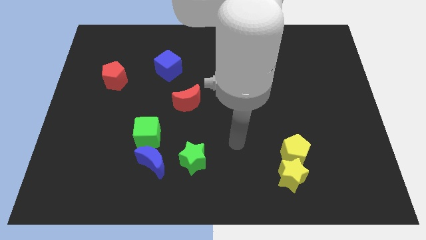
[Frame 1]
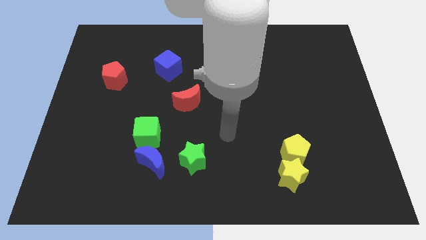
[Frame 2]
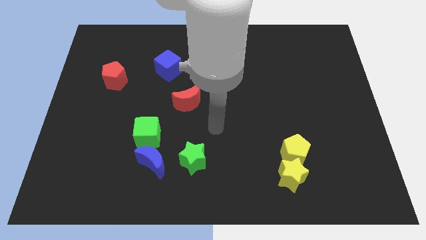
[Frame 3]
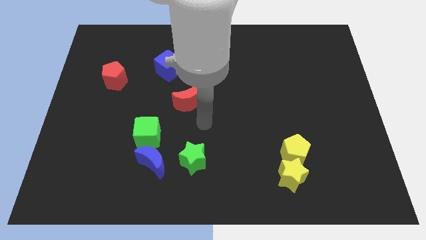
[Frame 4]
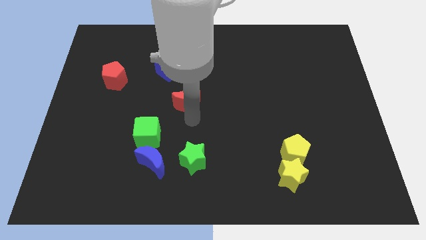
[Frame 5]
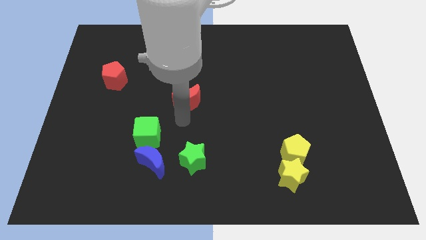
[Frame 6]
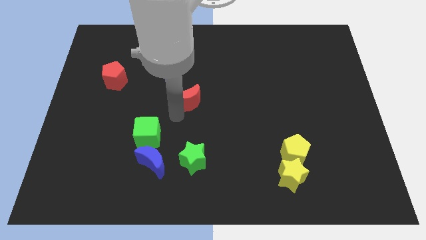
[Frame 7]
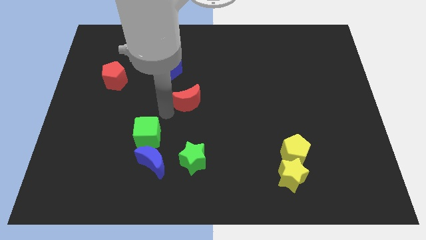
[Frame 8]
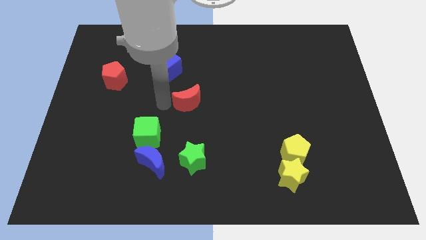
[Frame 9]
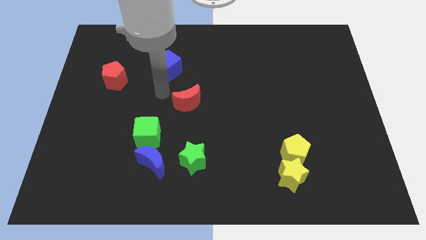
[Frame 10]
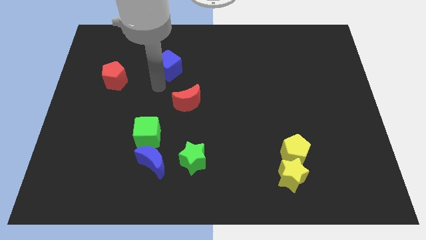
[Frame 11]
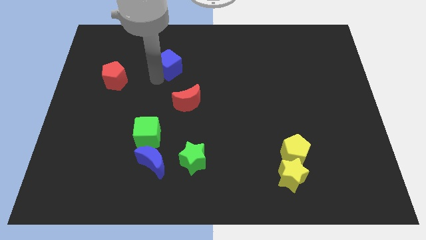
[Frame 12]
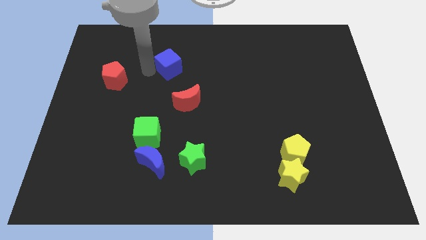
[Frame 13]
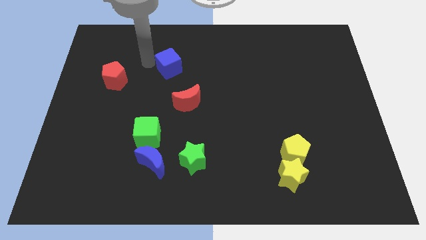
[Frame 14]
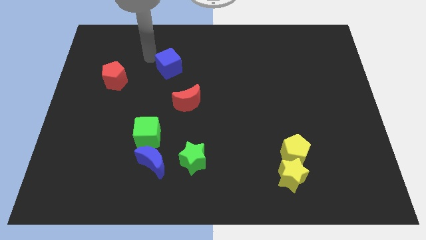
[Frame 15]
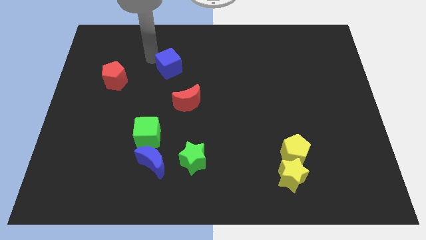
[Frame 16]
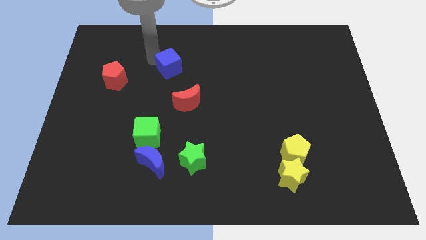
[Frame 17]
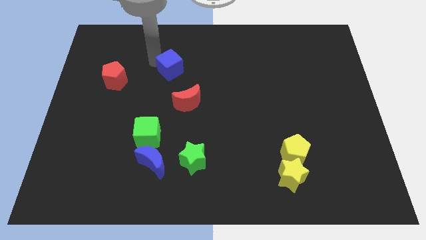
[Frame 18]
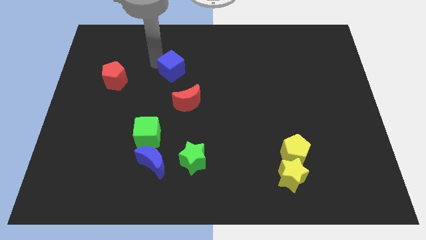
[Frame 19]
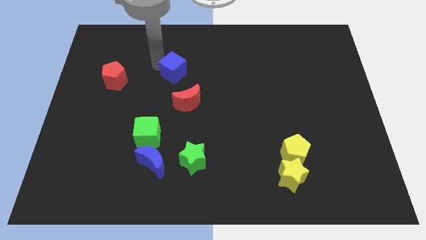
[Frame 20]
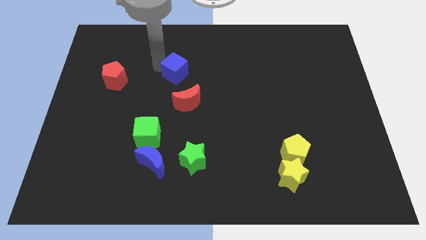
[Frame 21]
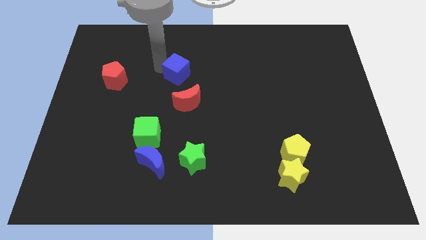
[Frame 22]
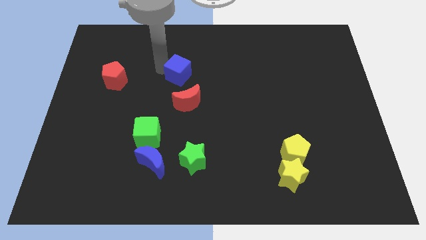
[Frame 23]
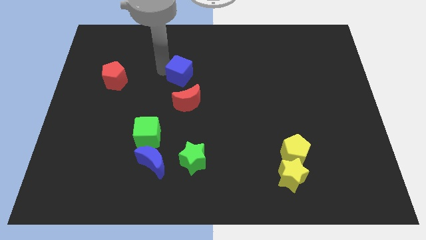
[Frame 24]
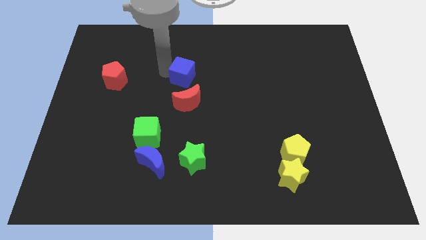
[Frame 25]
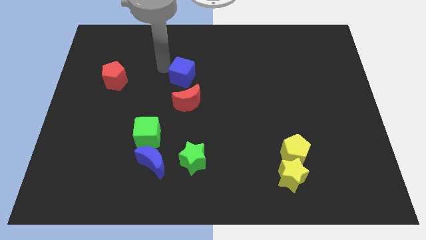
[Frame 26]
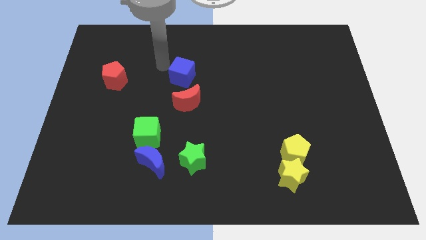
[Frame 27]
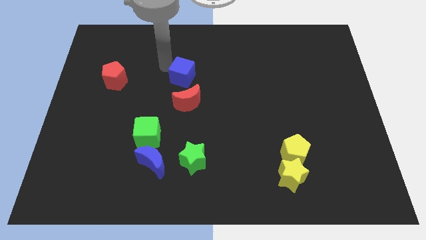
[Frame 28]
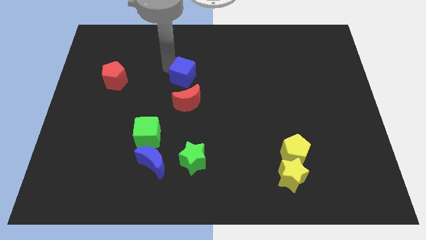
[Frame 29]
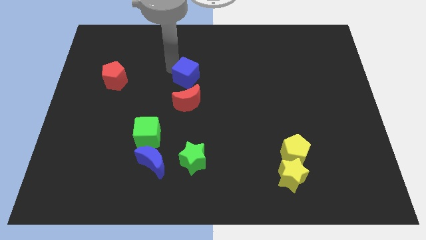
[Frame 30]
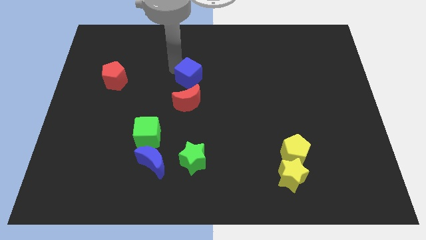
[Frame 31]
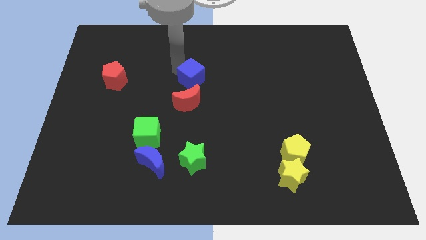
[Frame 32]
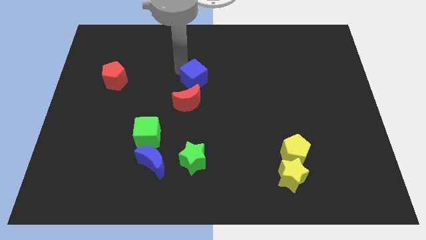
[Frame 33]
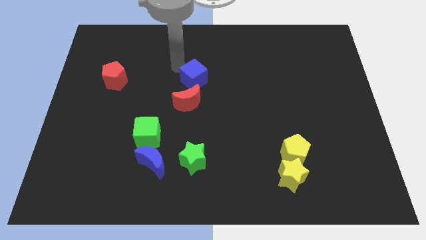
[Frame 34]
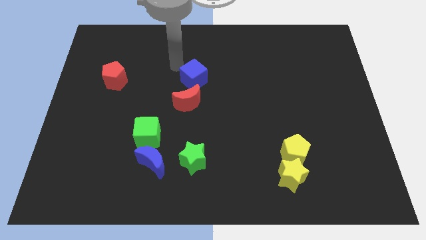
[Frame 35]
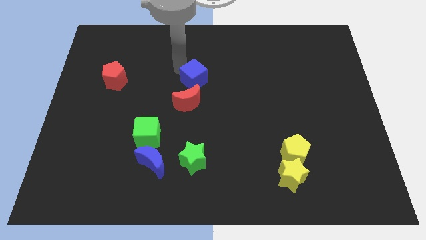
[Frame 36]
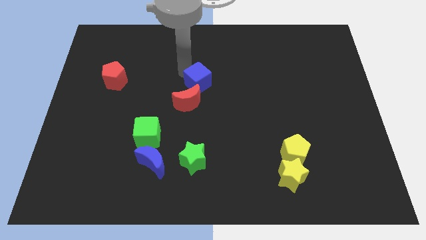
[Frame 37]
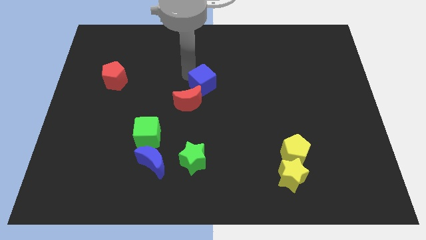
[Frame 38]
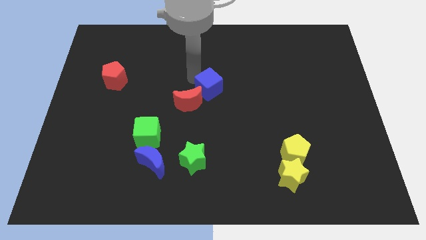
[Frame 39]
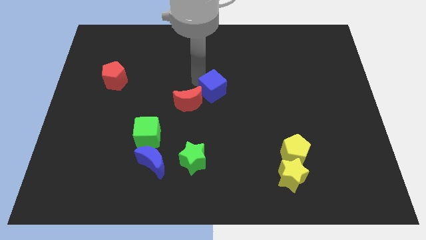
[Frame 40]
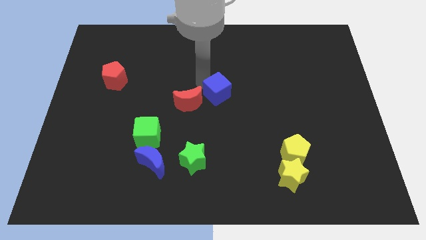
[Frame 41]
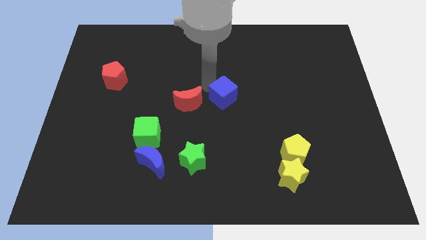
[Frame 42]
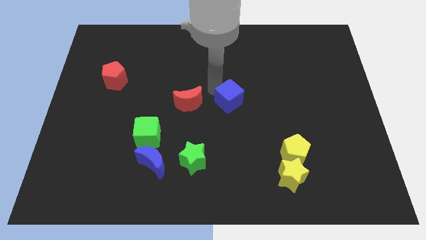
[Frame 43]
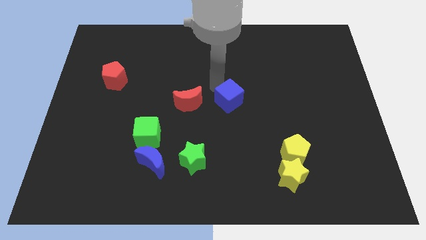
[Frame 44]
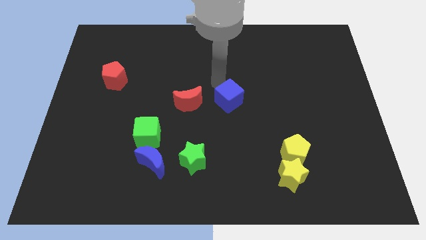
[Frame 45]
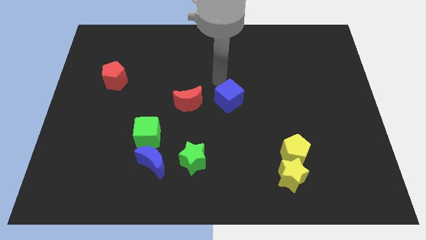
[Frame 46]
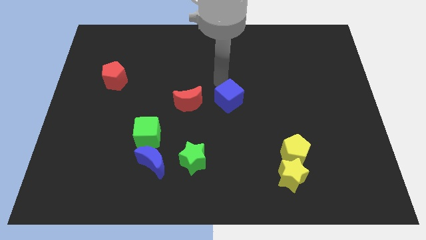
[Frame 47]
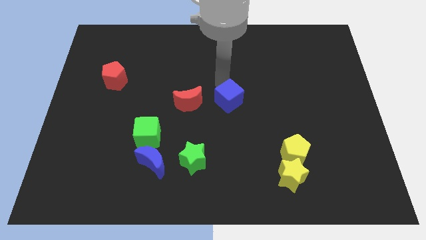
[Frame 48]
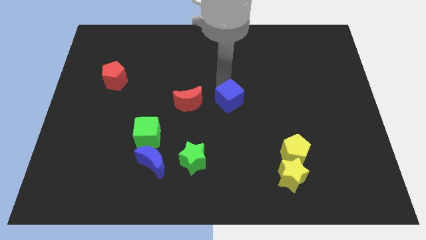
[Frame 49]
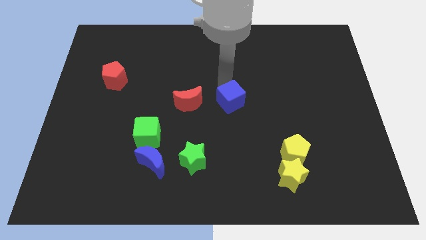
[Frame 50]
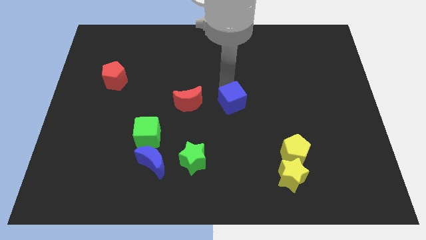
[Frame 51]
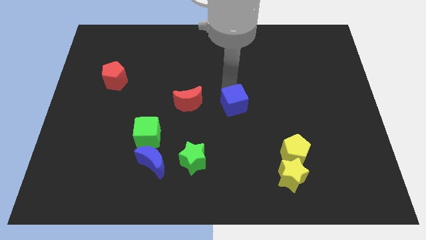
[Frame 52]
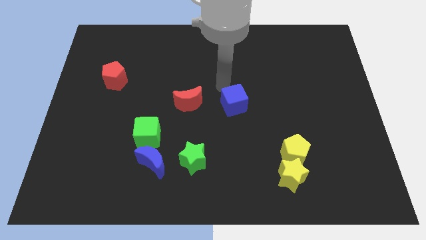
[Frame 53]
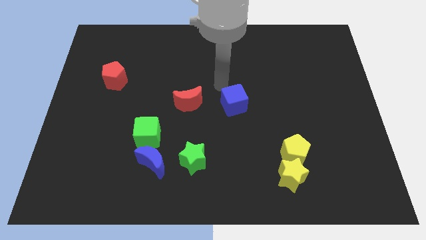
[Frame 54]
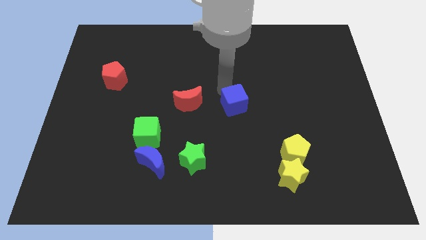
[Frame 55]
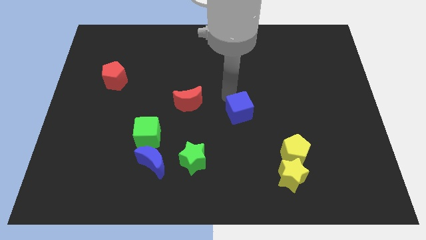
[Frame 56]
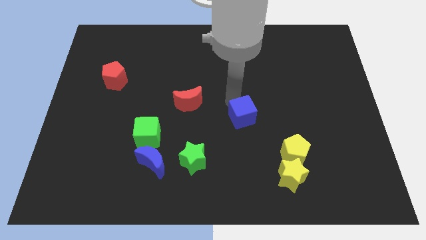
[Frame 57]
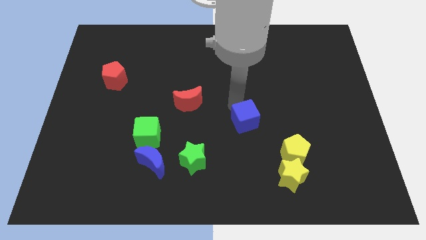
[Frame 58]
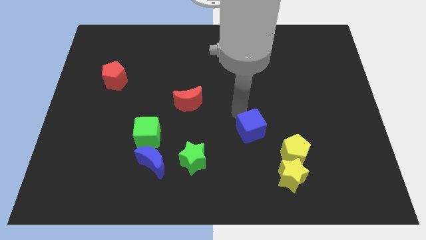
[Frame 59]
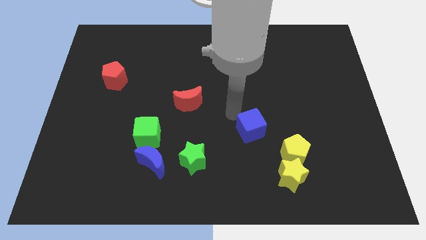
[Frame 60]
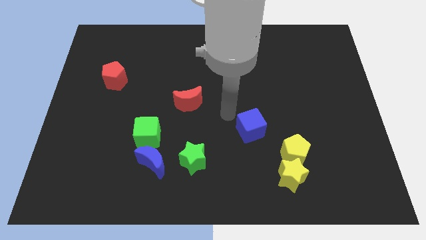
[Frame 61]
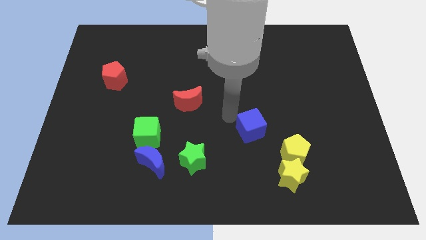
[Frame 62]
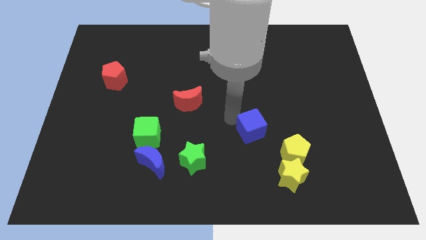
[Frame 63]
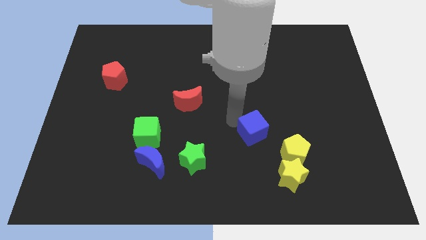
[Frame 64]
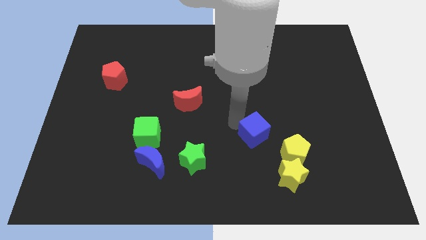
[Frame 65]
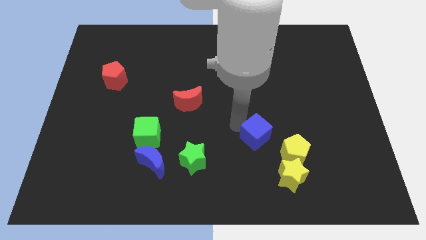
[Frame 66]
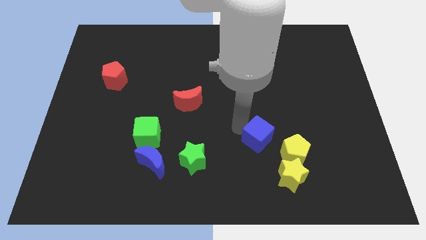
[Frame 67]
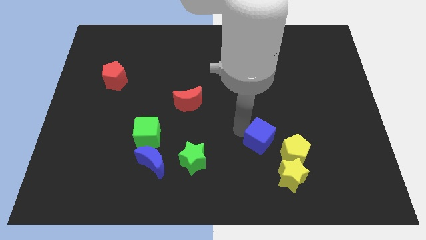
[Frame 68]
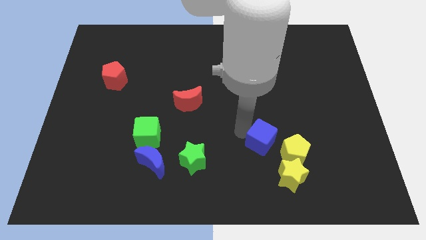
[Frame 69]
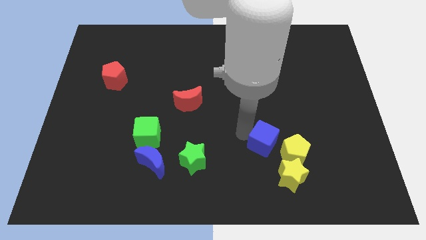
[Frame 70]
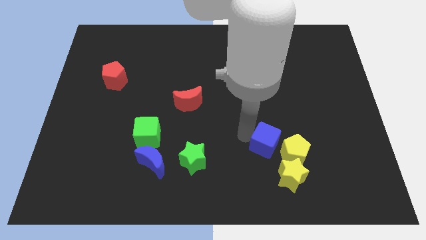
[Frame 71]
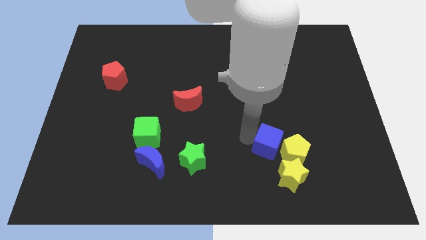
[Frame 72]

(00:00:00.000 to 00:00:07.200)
move the blue cube towards the yellow pentagon
